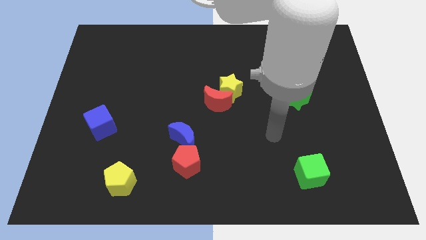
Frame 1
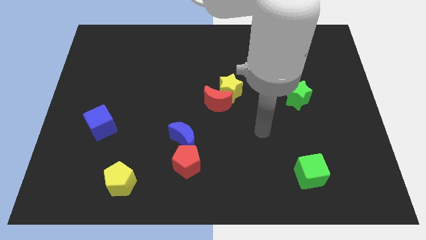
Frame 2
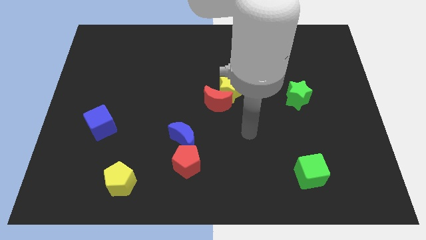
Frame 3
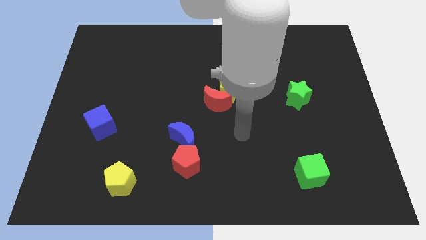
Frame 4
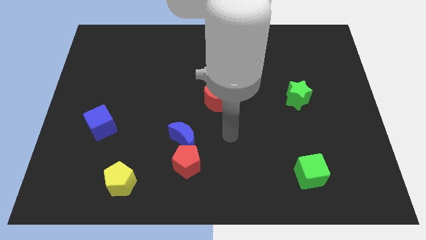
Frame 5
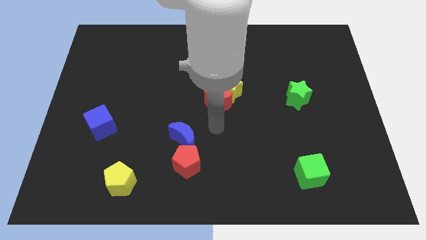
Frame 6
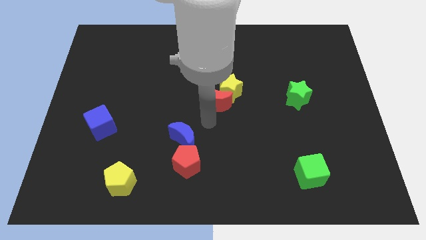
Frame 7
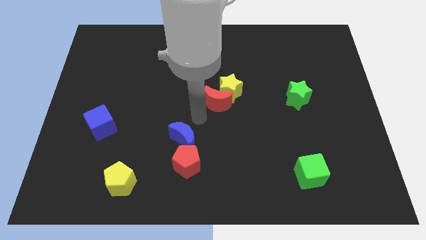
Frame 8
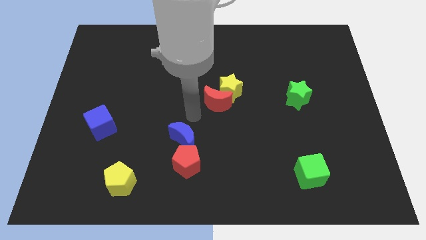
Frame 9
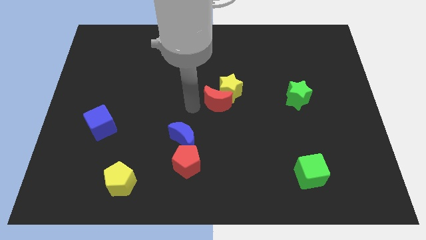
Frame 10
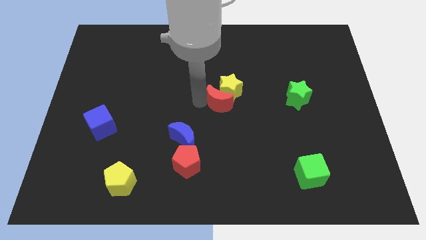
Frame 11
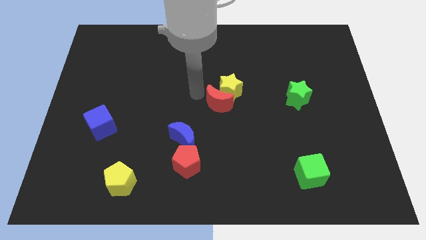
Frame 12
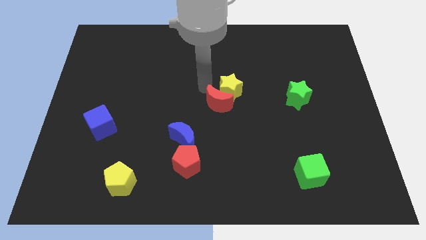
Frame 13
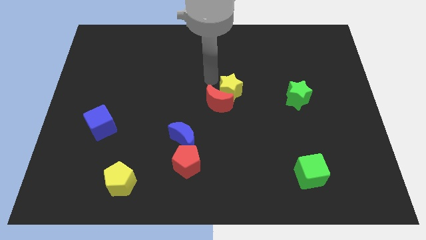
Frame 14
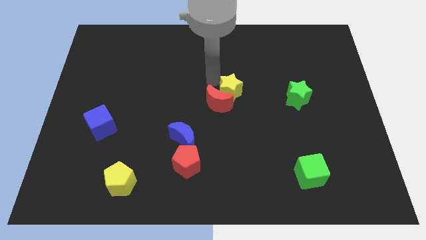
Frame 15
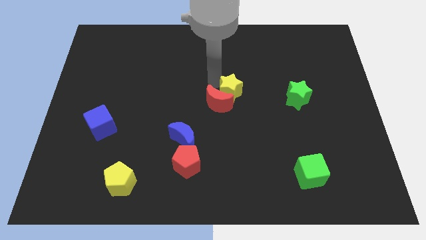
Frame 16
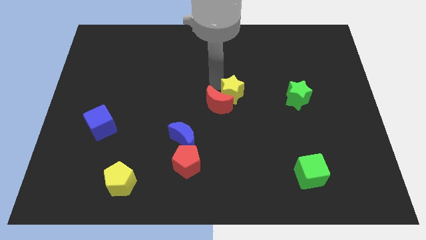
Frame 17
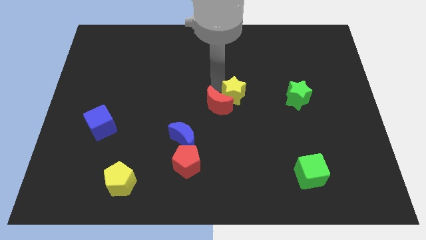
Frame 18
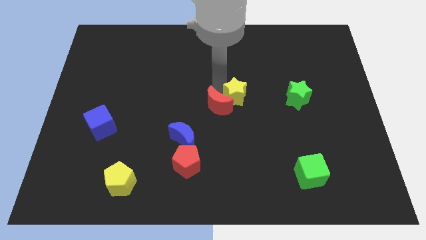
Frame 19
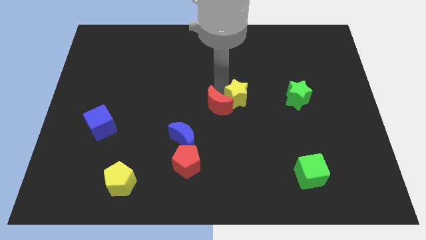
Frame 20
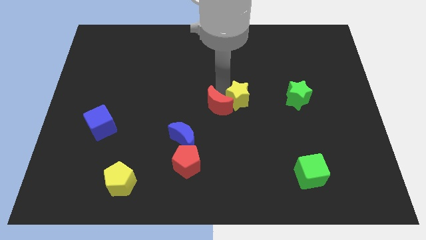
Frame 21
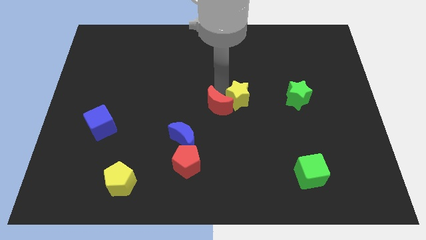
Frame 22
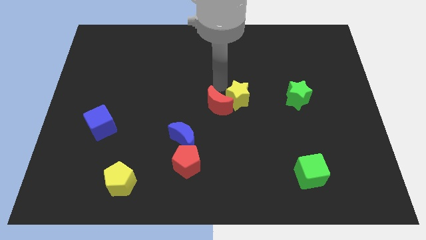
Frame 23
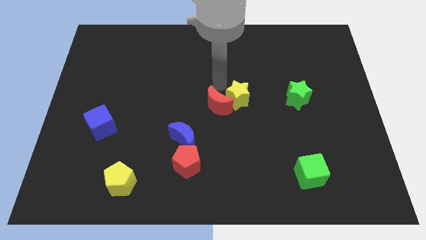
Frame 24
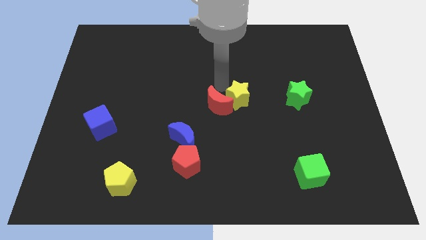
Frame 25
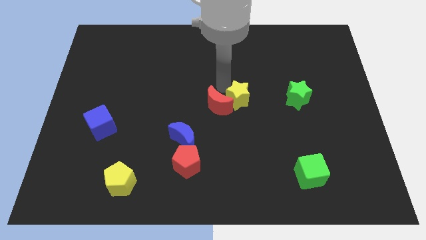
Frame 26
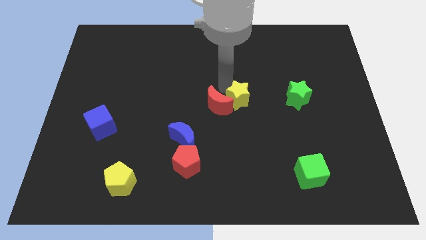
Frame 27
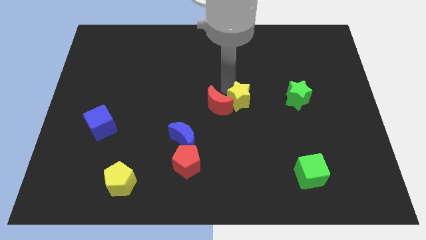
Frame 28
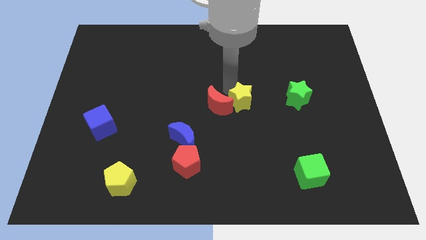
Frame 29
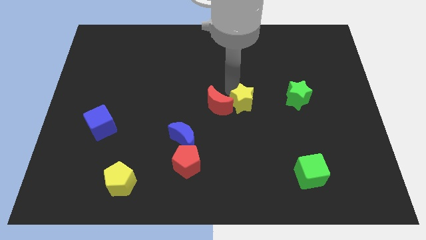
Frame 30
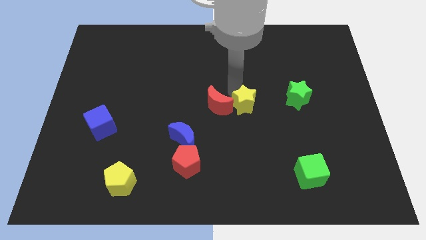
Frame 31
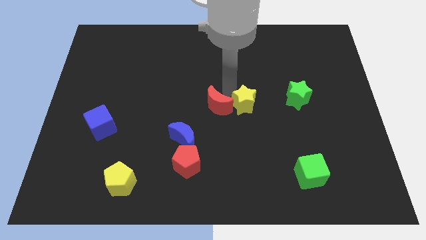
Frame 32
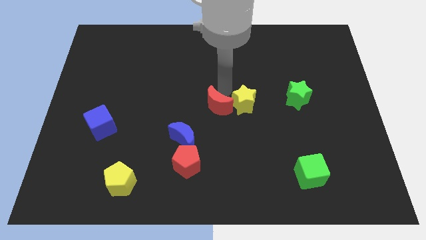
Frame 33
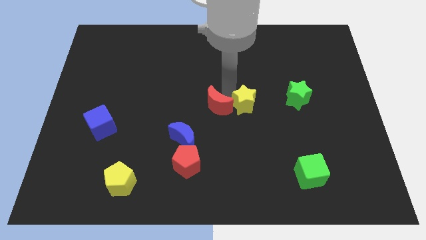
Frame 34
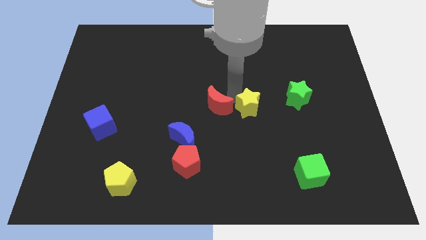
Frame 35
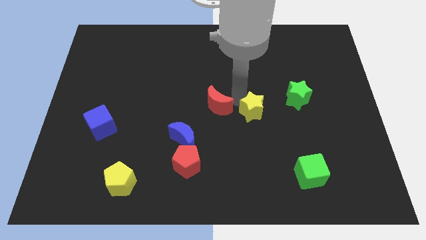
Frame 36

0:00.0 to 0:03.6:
slightly slide the yellow star down and right diagonally

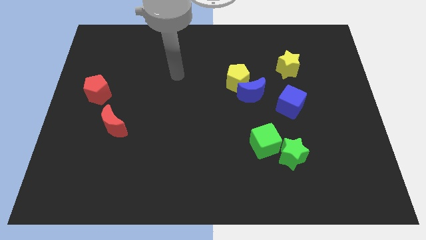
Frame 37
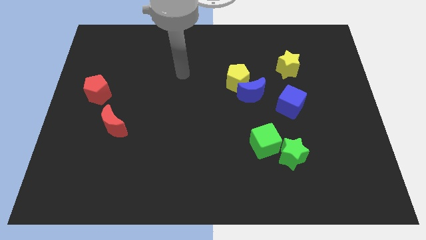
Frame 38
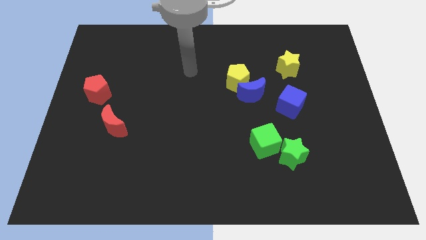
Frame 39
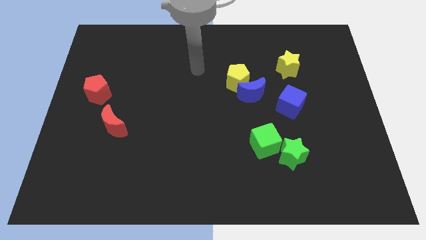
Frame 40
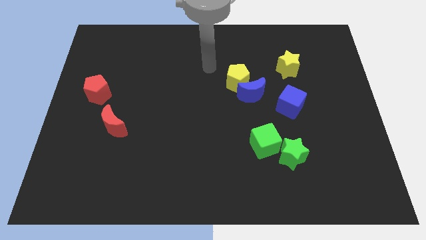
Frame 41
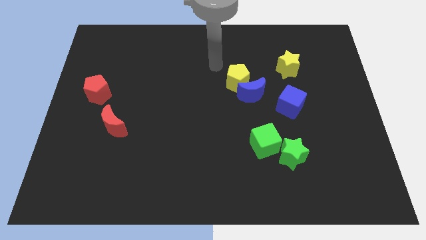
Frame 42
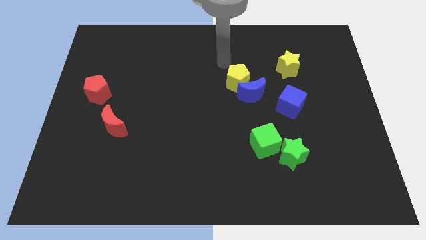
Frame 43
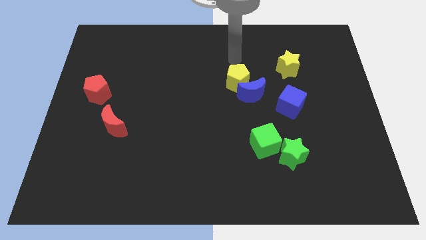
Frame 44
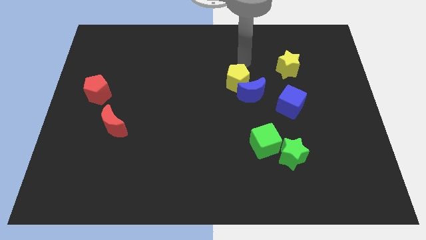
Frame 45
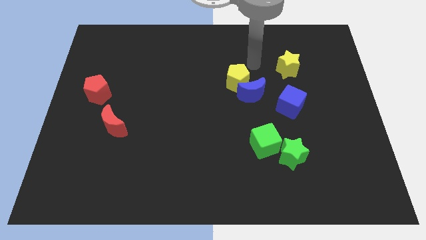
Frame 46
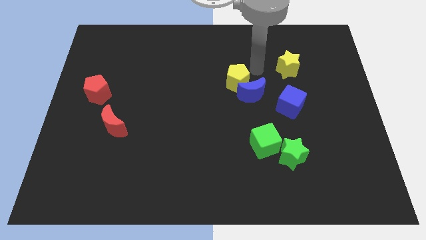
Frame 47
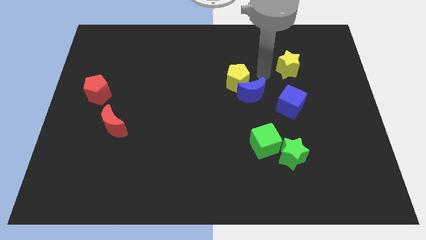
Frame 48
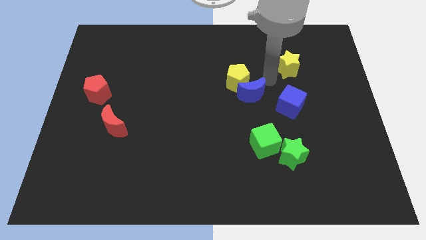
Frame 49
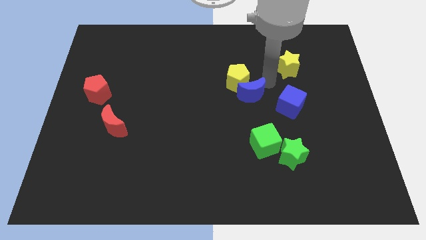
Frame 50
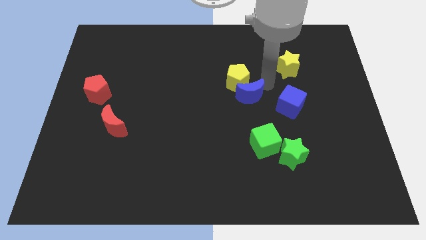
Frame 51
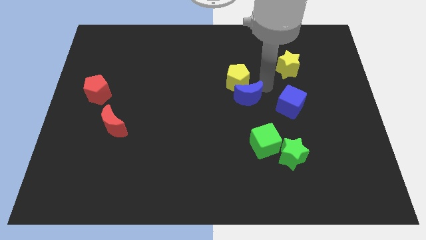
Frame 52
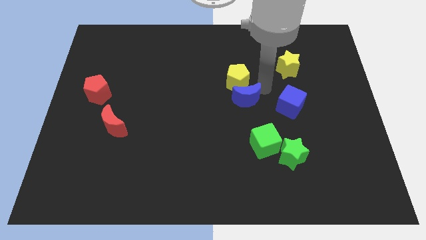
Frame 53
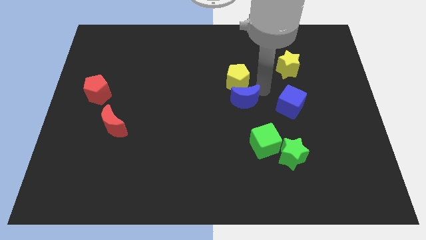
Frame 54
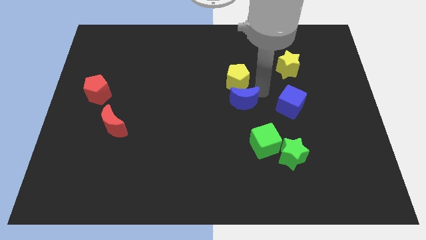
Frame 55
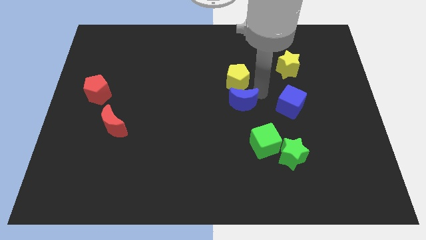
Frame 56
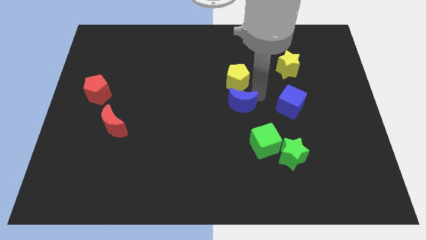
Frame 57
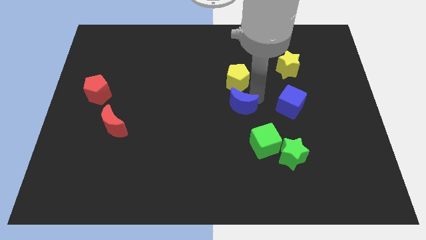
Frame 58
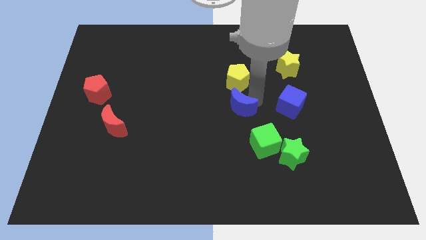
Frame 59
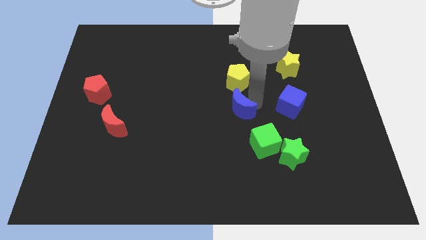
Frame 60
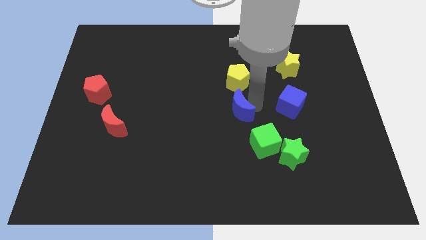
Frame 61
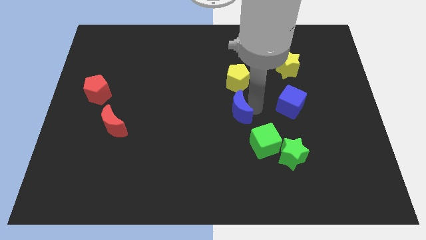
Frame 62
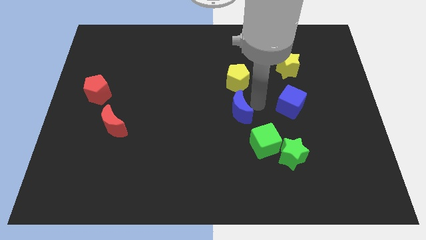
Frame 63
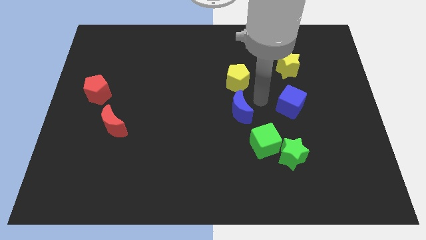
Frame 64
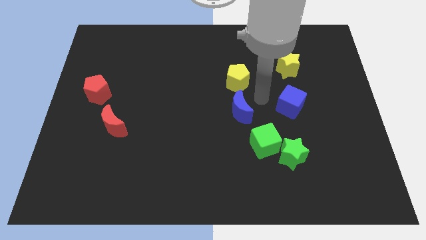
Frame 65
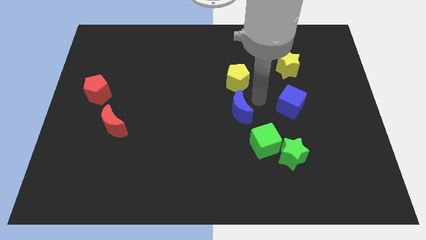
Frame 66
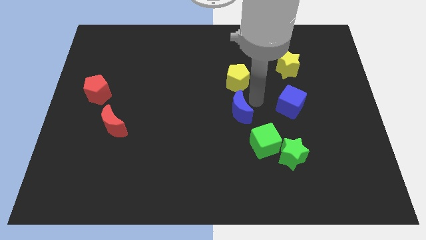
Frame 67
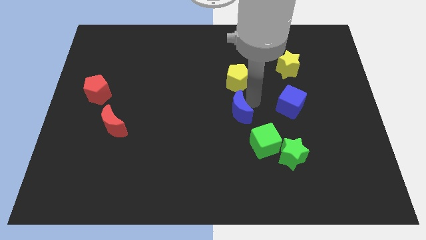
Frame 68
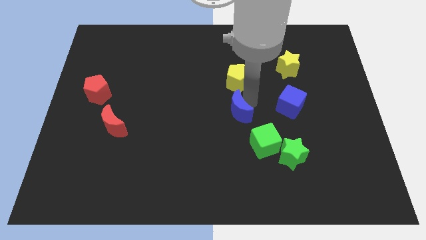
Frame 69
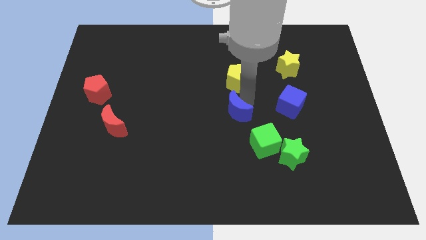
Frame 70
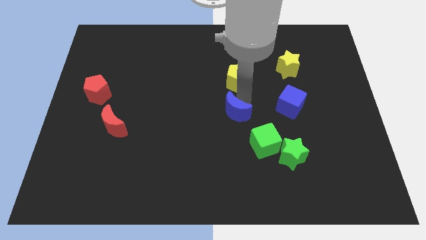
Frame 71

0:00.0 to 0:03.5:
push the blue moon a little downwards and then to the left

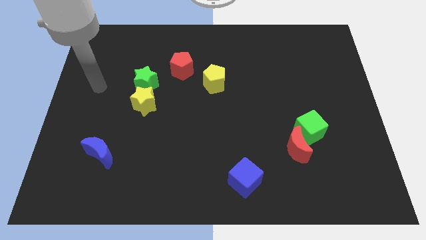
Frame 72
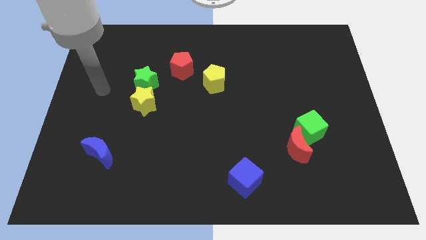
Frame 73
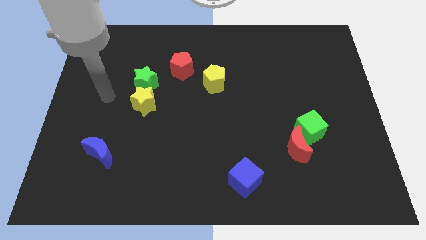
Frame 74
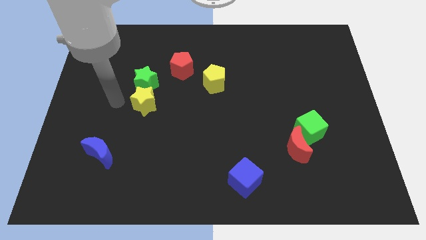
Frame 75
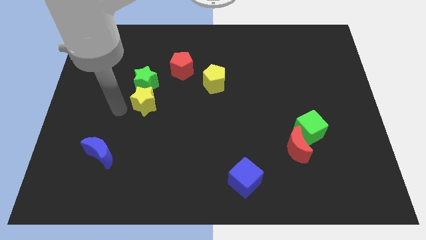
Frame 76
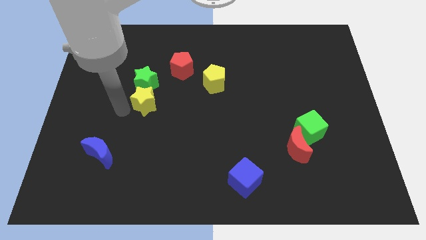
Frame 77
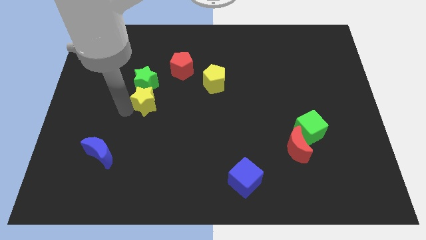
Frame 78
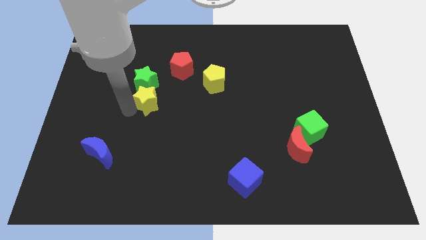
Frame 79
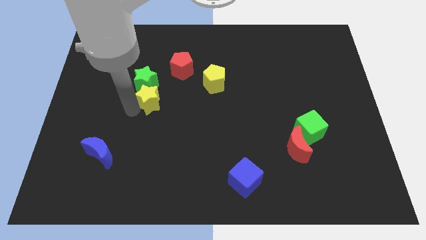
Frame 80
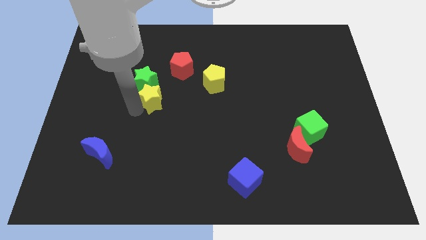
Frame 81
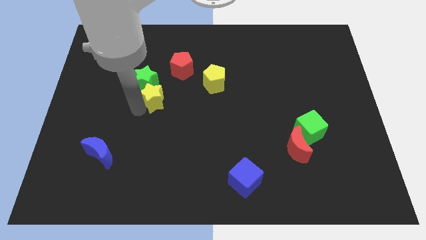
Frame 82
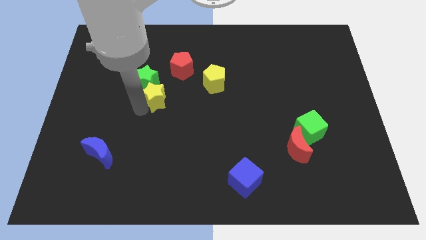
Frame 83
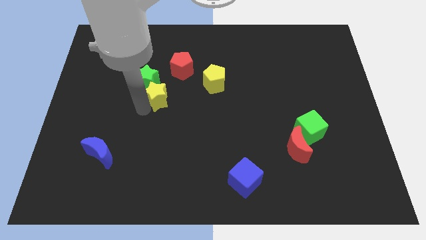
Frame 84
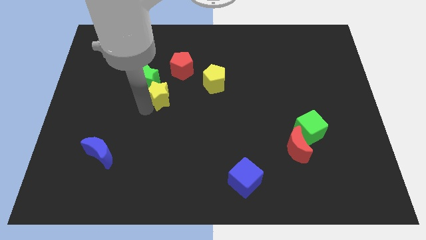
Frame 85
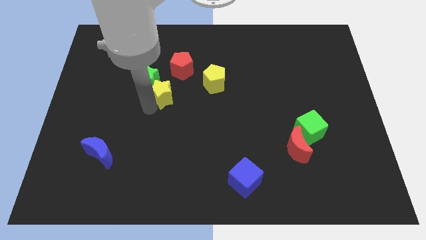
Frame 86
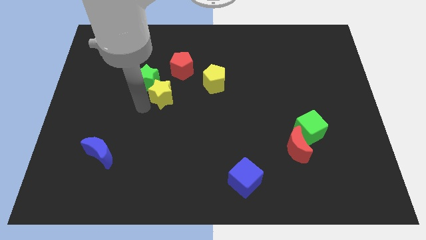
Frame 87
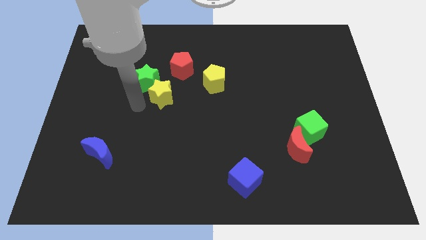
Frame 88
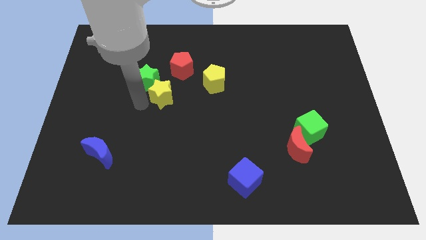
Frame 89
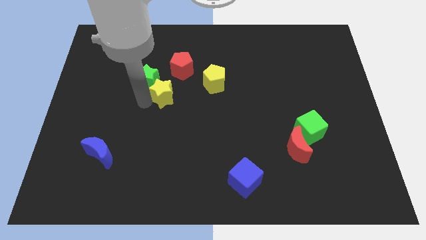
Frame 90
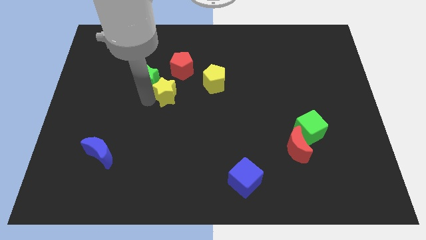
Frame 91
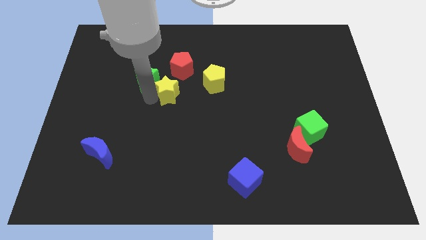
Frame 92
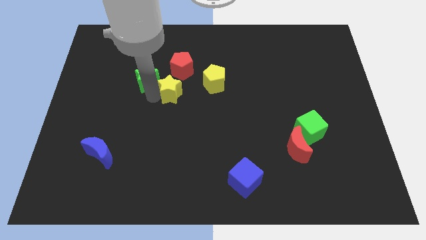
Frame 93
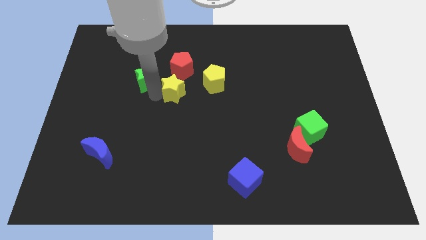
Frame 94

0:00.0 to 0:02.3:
push the yellow star up and then right a little bit
